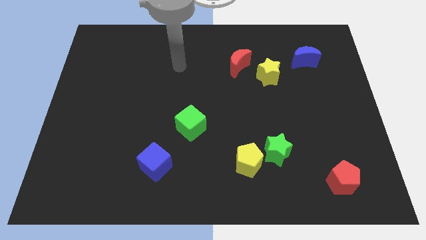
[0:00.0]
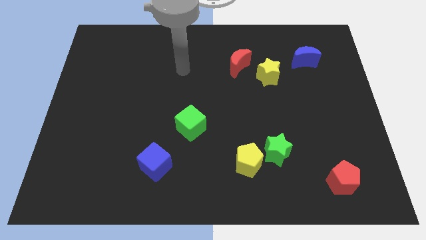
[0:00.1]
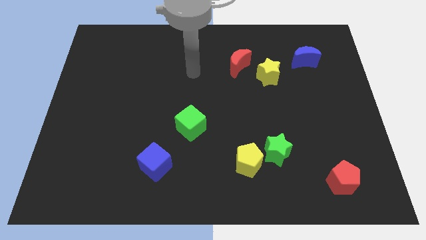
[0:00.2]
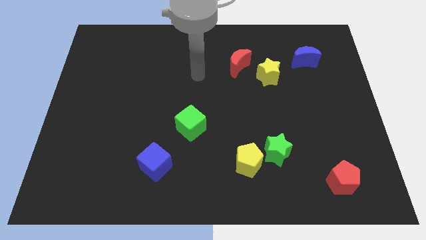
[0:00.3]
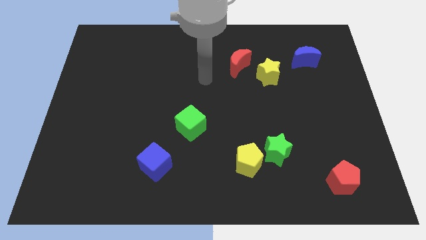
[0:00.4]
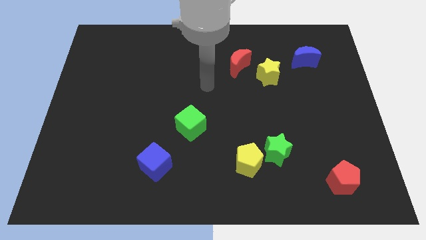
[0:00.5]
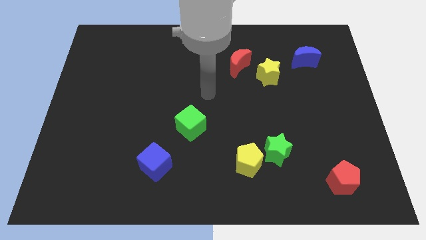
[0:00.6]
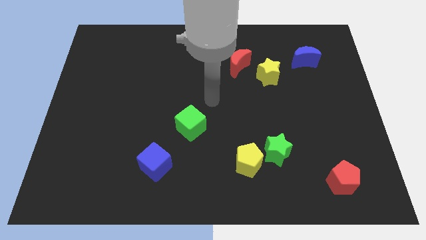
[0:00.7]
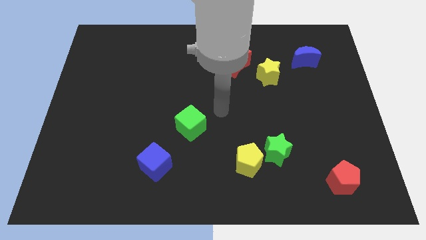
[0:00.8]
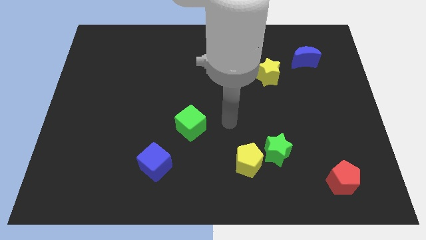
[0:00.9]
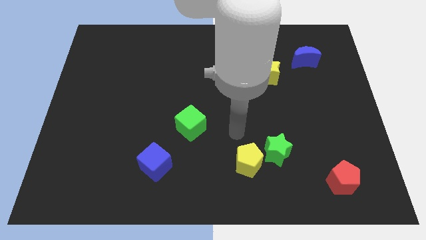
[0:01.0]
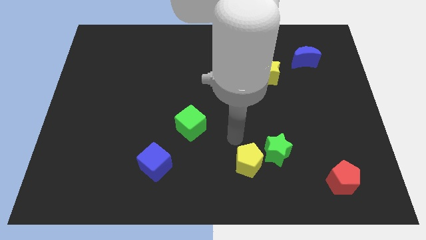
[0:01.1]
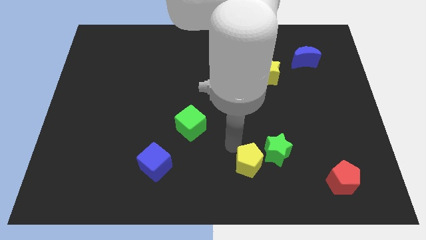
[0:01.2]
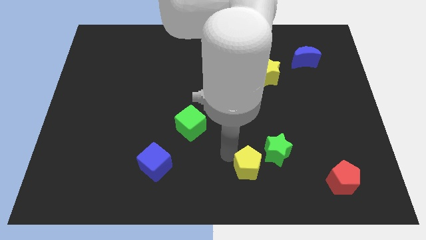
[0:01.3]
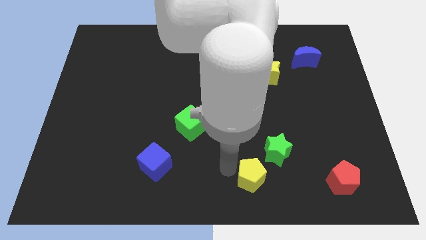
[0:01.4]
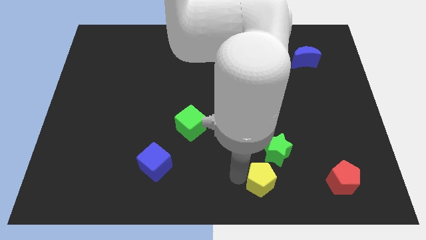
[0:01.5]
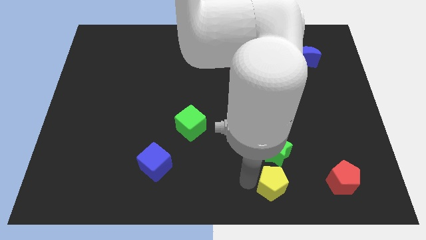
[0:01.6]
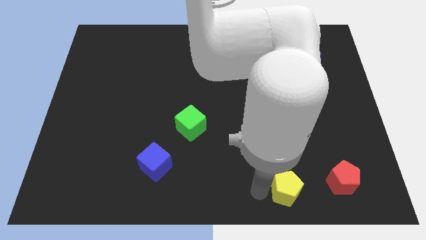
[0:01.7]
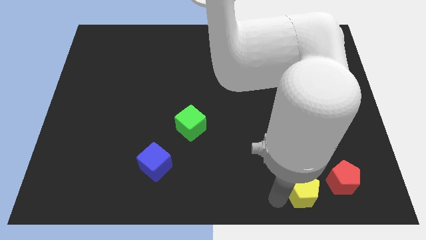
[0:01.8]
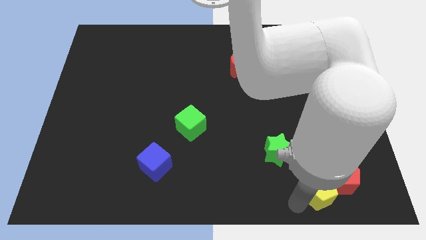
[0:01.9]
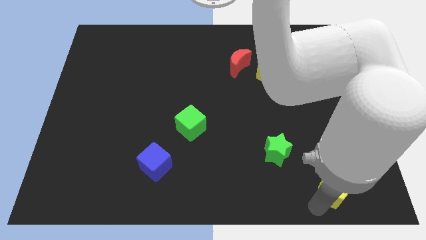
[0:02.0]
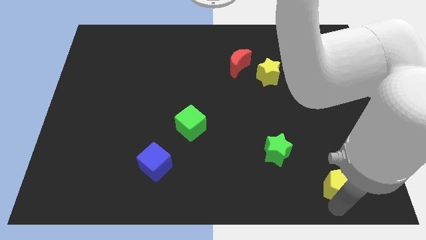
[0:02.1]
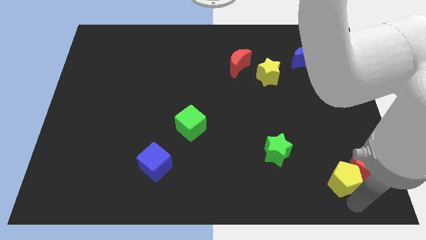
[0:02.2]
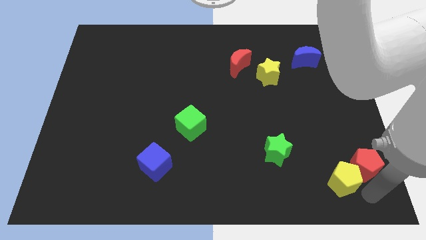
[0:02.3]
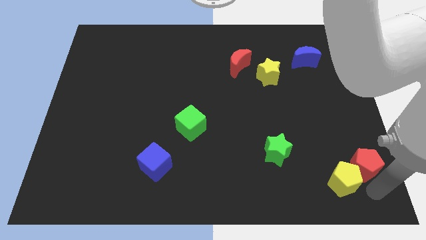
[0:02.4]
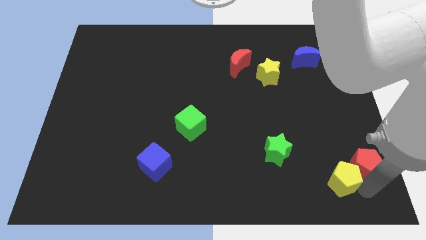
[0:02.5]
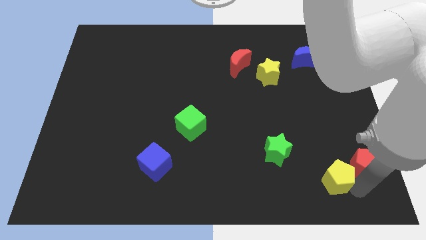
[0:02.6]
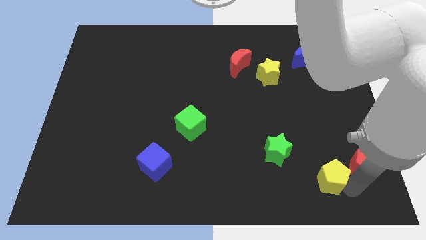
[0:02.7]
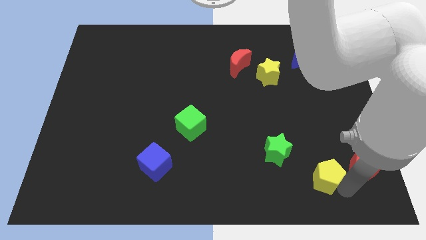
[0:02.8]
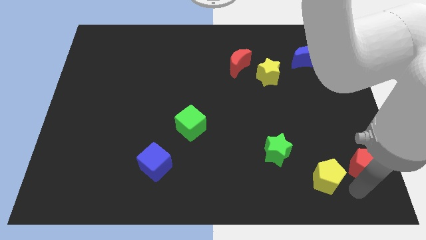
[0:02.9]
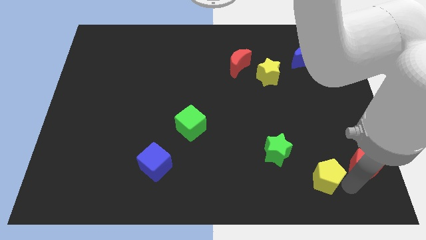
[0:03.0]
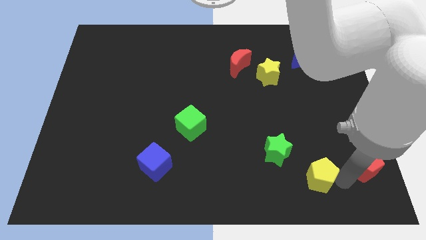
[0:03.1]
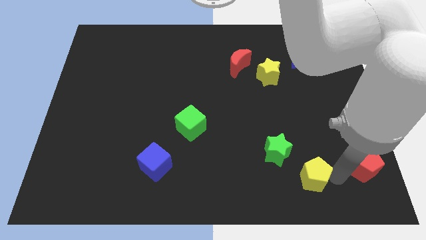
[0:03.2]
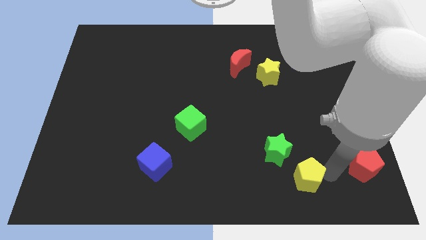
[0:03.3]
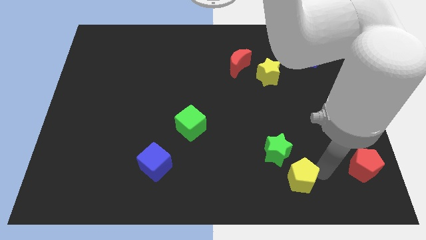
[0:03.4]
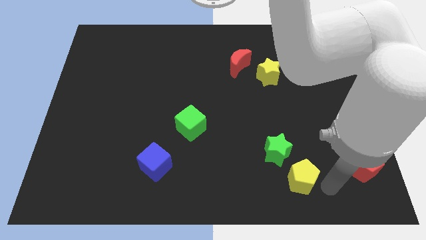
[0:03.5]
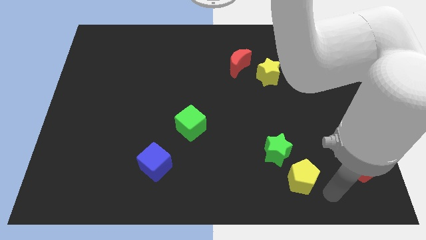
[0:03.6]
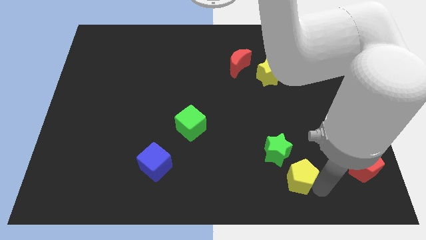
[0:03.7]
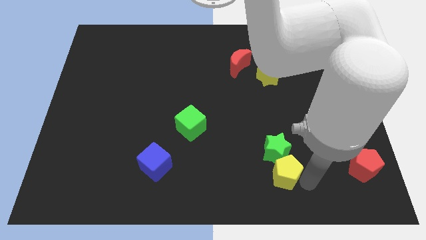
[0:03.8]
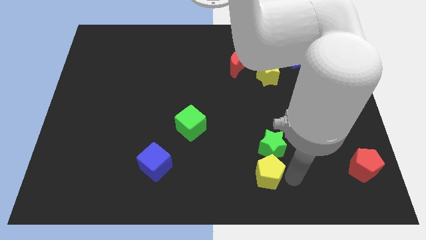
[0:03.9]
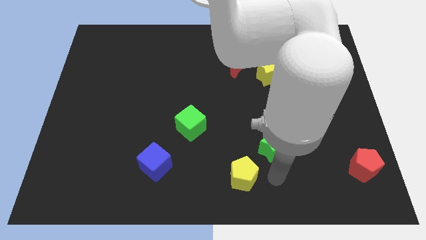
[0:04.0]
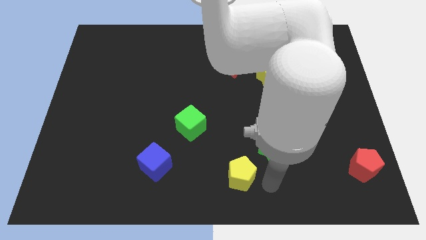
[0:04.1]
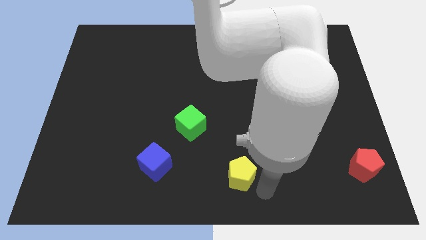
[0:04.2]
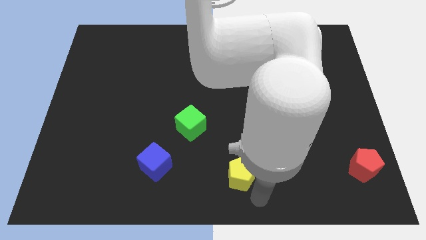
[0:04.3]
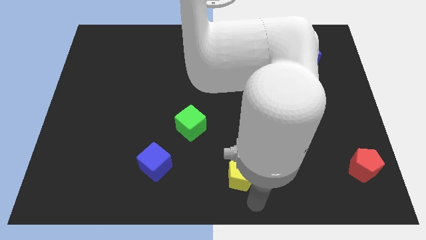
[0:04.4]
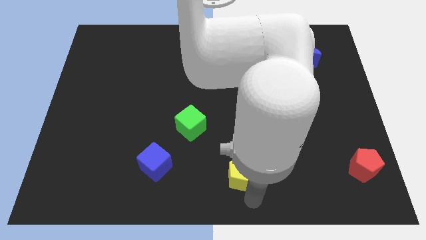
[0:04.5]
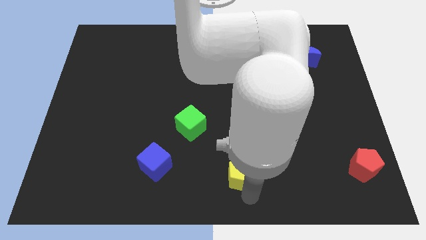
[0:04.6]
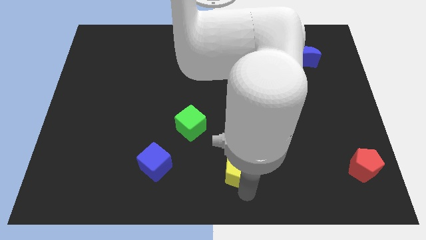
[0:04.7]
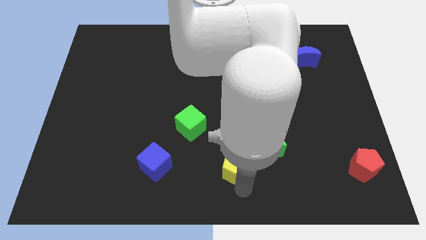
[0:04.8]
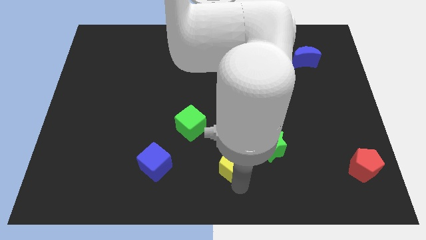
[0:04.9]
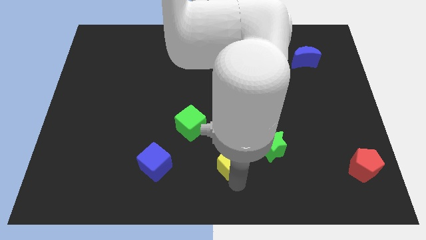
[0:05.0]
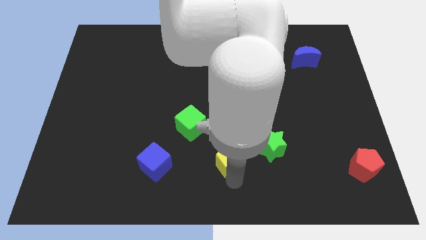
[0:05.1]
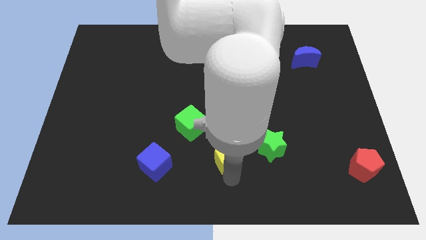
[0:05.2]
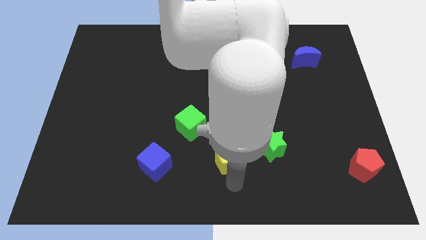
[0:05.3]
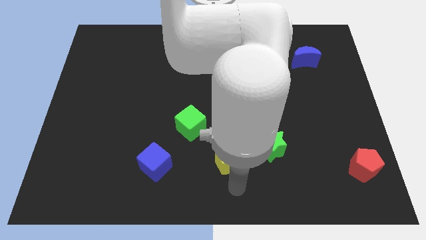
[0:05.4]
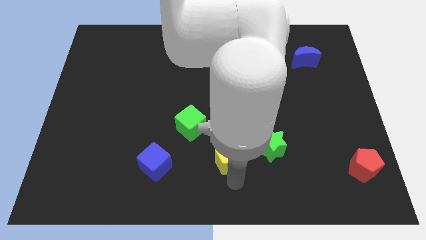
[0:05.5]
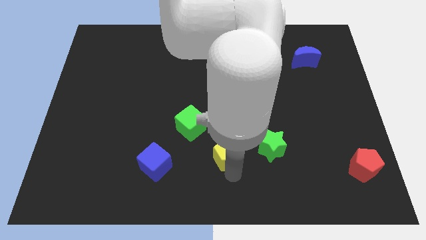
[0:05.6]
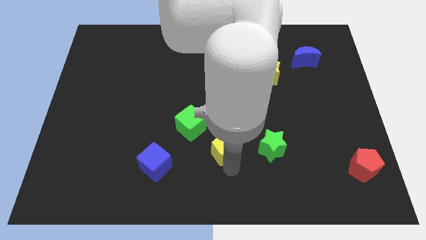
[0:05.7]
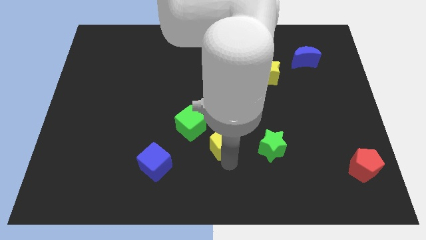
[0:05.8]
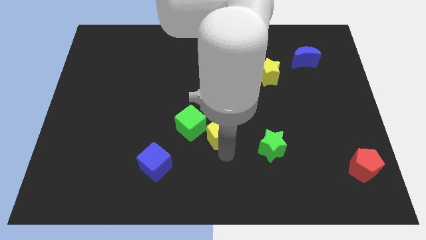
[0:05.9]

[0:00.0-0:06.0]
push the yellow pentagon to the center of the board

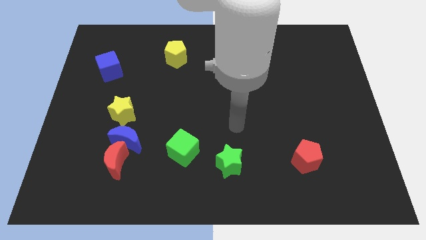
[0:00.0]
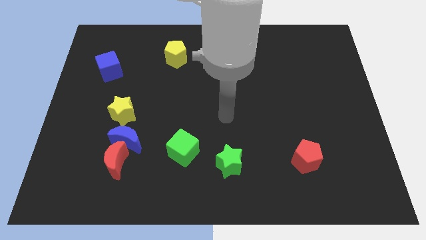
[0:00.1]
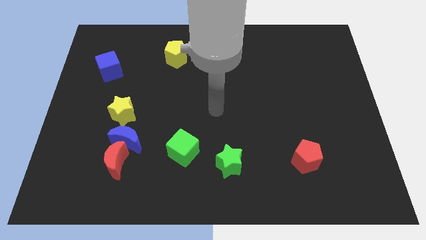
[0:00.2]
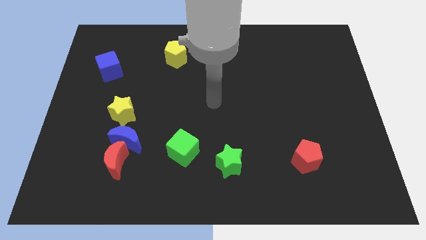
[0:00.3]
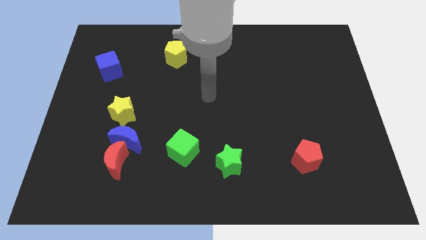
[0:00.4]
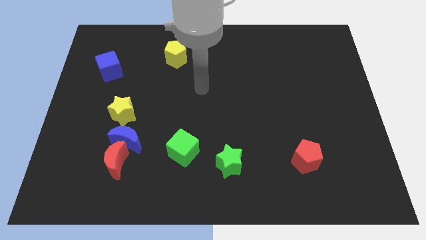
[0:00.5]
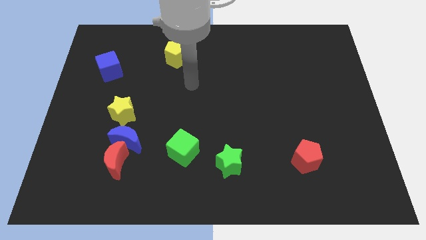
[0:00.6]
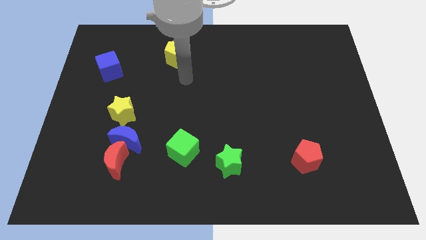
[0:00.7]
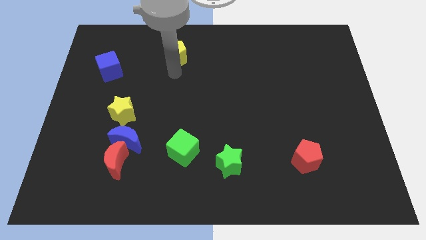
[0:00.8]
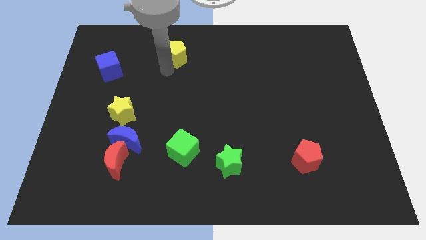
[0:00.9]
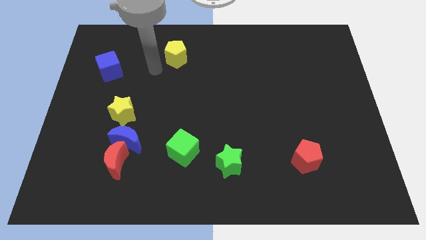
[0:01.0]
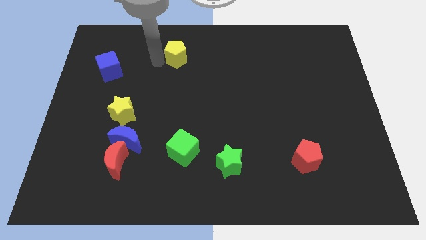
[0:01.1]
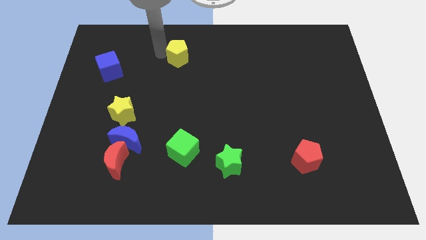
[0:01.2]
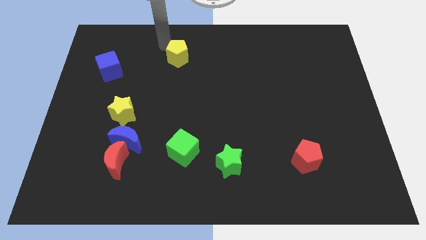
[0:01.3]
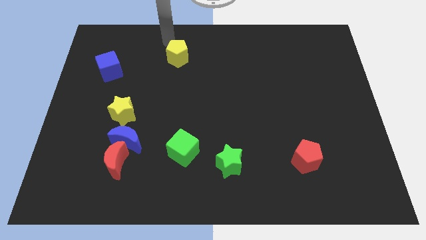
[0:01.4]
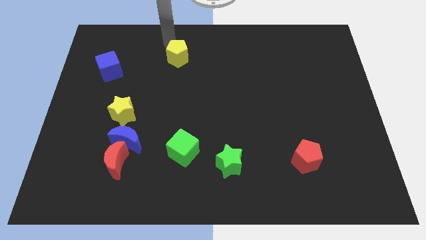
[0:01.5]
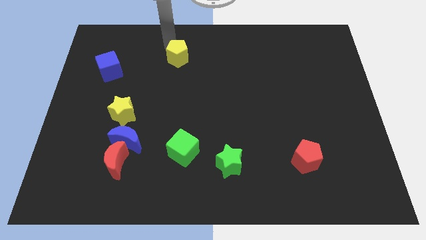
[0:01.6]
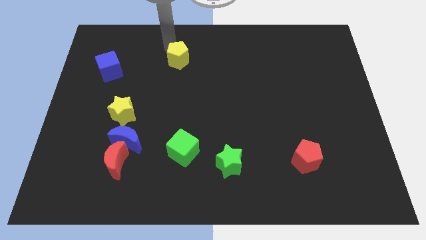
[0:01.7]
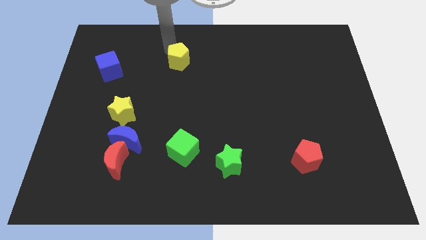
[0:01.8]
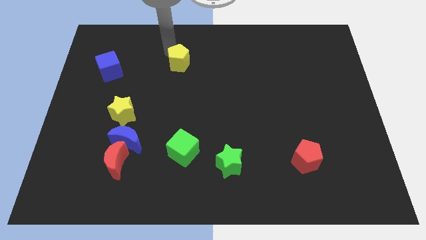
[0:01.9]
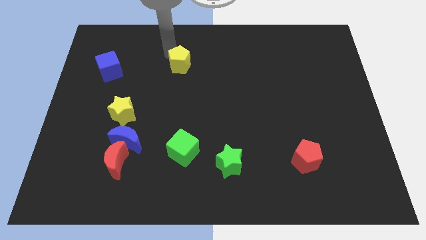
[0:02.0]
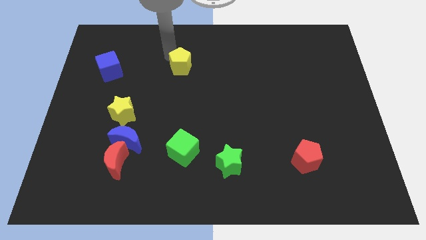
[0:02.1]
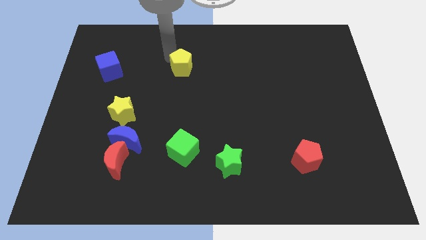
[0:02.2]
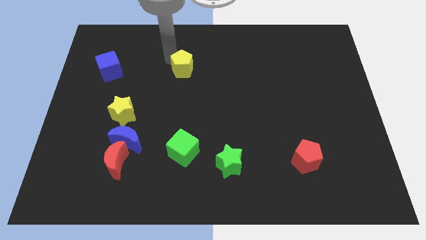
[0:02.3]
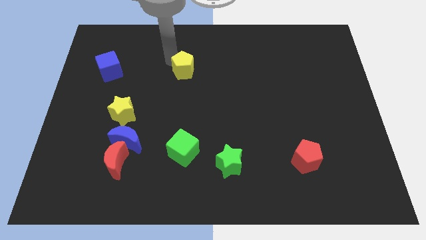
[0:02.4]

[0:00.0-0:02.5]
put the yellow pentagon to the center
